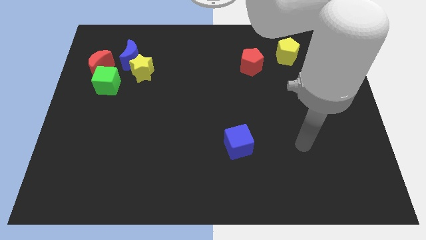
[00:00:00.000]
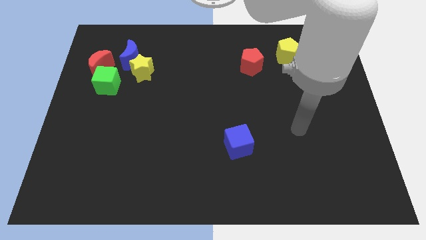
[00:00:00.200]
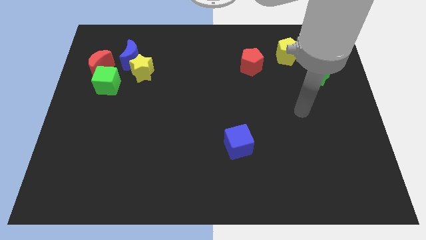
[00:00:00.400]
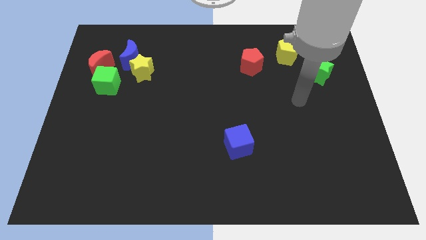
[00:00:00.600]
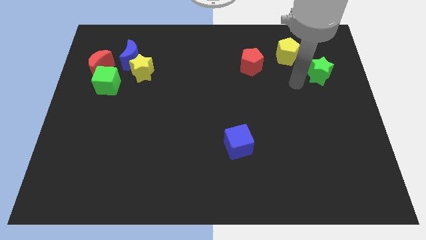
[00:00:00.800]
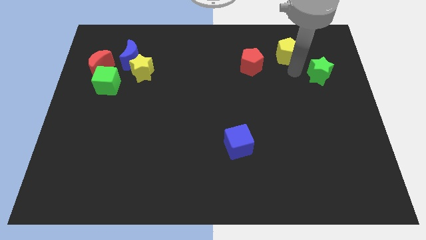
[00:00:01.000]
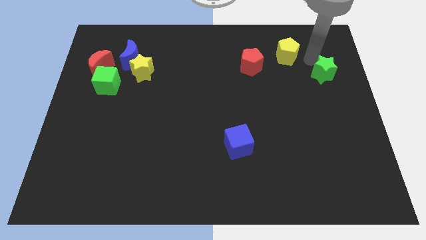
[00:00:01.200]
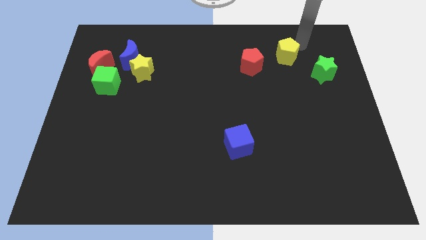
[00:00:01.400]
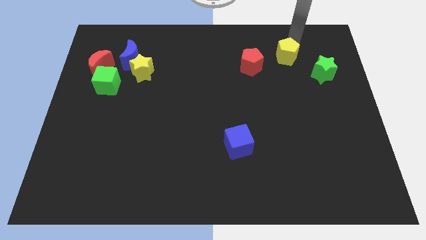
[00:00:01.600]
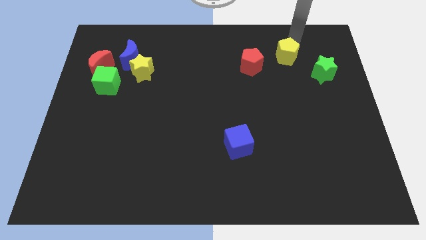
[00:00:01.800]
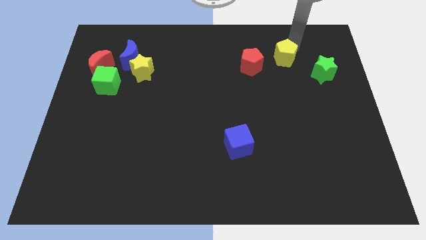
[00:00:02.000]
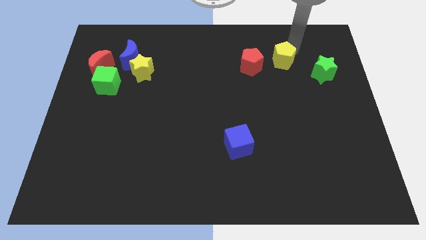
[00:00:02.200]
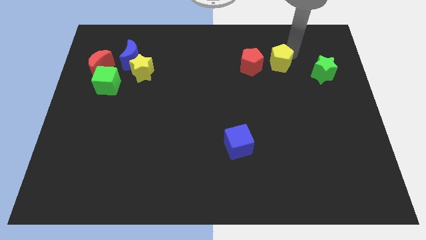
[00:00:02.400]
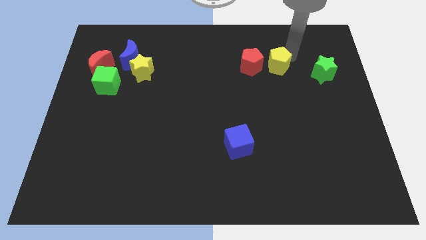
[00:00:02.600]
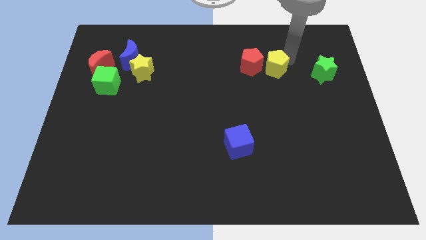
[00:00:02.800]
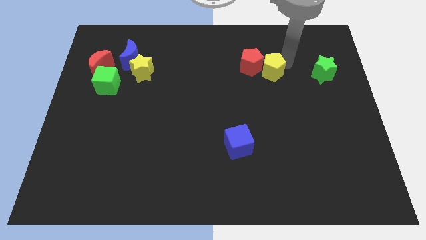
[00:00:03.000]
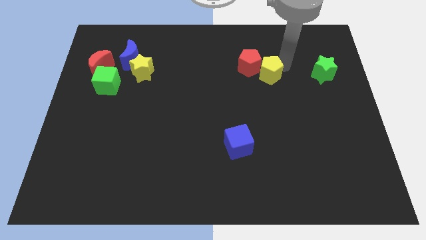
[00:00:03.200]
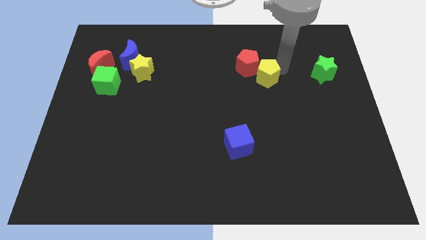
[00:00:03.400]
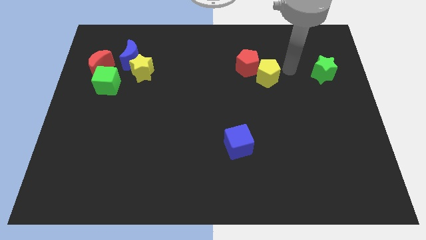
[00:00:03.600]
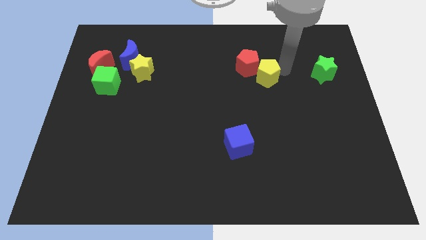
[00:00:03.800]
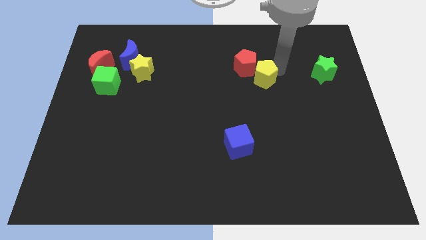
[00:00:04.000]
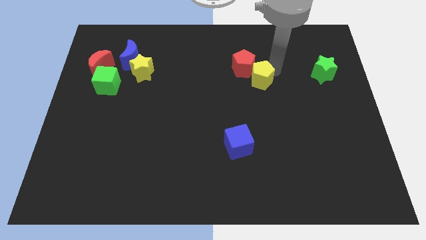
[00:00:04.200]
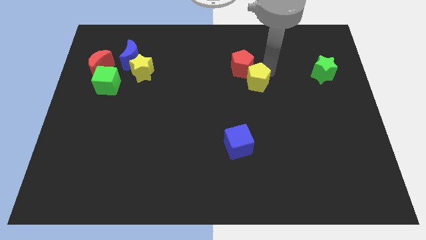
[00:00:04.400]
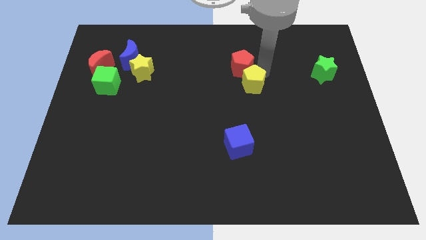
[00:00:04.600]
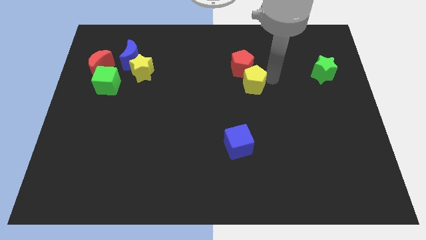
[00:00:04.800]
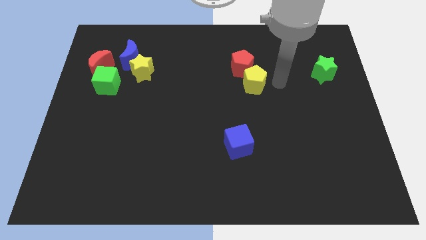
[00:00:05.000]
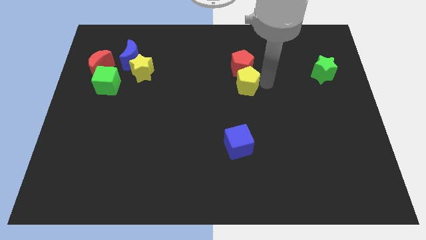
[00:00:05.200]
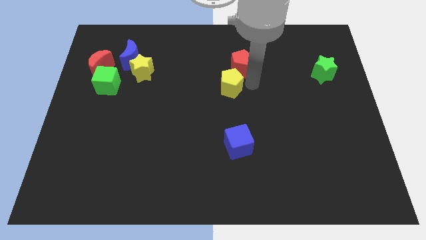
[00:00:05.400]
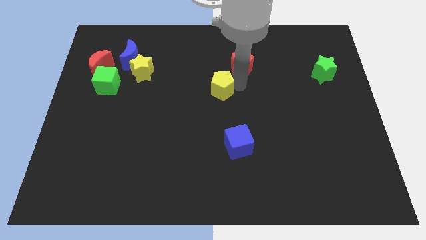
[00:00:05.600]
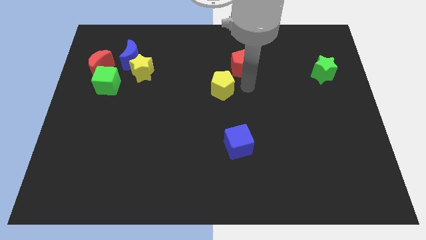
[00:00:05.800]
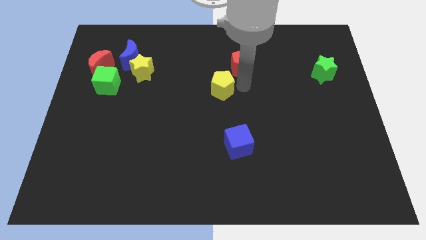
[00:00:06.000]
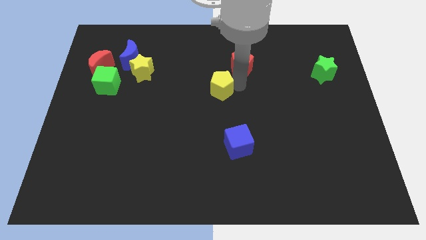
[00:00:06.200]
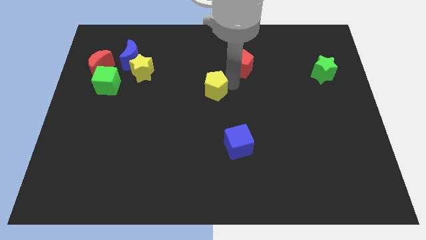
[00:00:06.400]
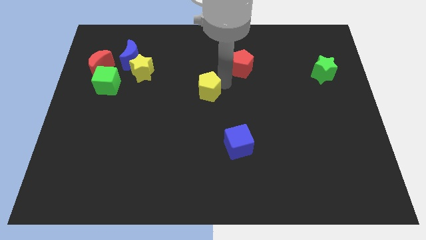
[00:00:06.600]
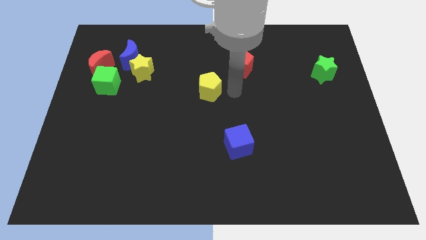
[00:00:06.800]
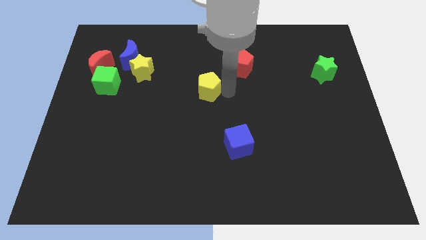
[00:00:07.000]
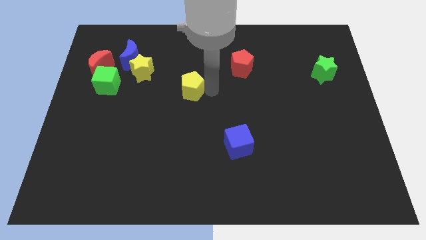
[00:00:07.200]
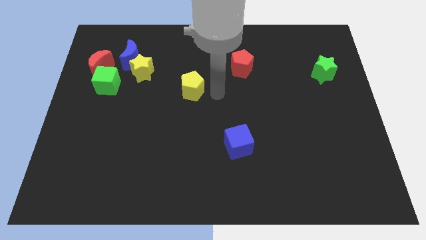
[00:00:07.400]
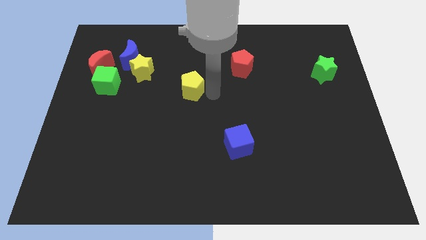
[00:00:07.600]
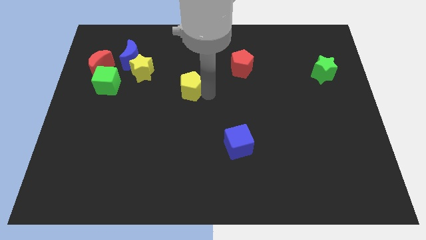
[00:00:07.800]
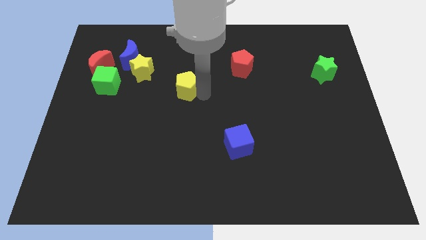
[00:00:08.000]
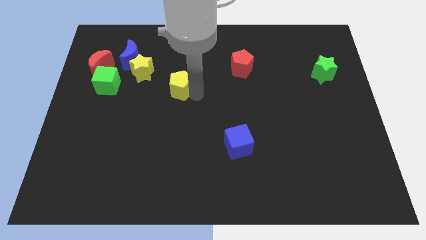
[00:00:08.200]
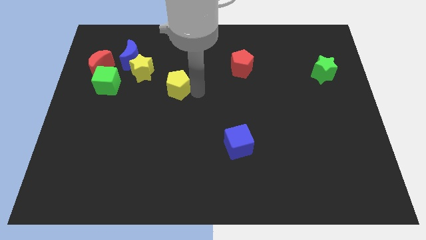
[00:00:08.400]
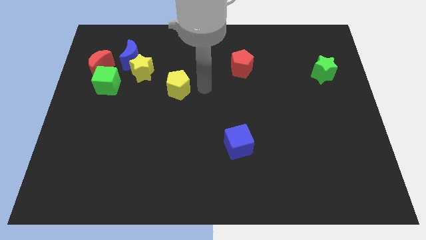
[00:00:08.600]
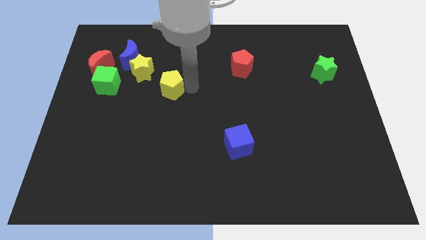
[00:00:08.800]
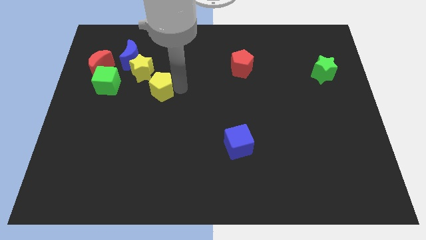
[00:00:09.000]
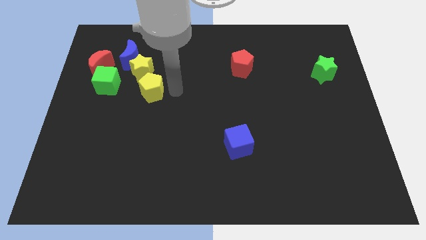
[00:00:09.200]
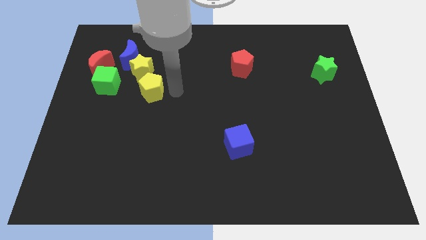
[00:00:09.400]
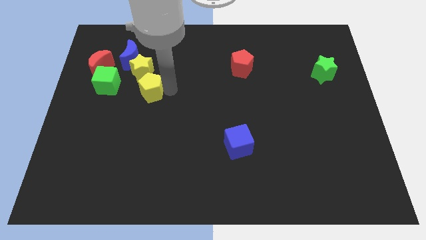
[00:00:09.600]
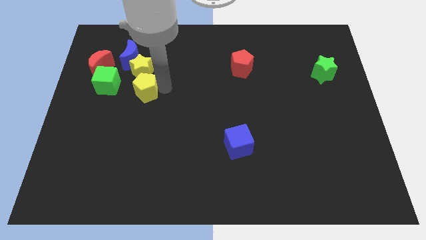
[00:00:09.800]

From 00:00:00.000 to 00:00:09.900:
put the yellow pentagon to the bottom side of the blue moon

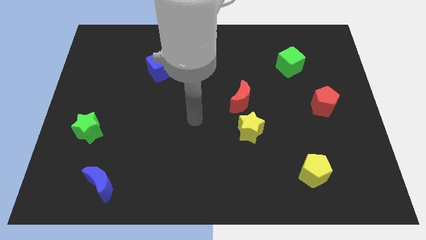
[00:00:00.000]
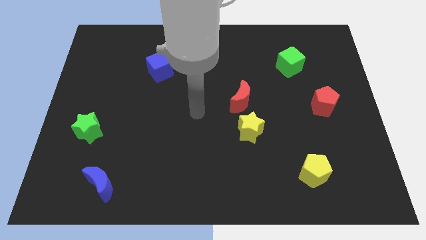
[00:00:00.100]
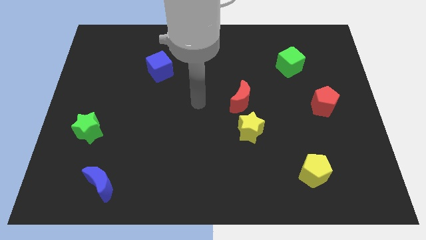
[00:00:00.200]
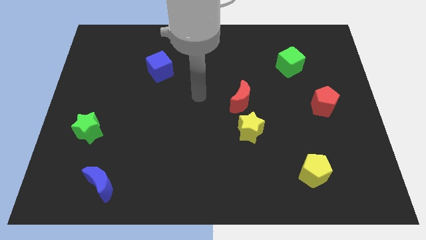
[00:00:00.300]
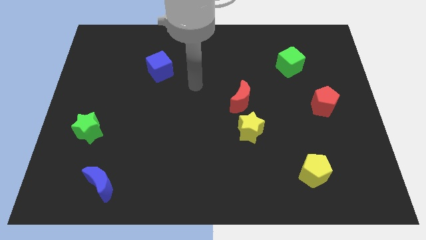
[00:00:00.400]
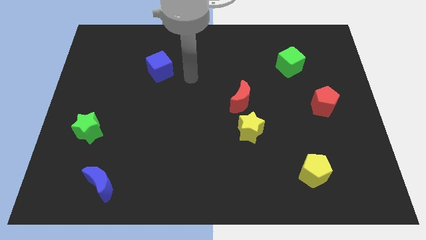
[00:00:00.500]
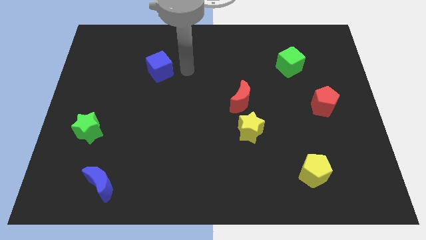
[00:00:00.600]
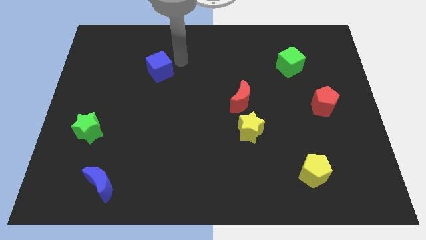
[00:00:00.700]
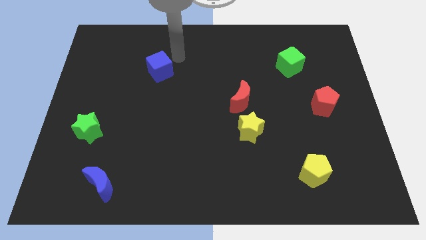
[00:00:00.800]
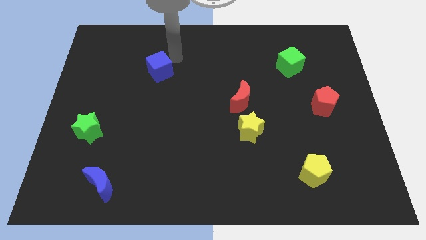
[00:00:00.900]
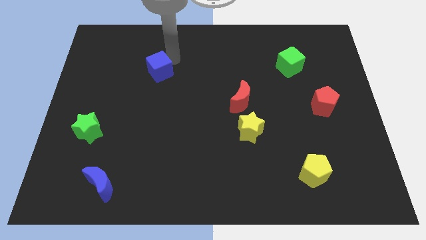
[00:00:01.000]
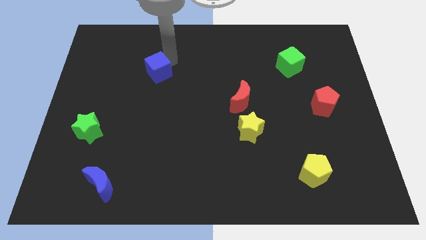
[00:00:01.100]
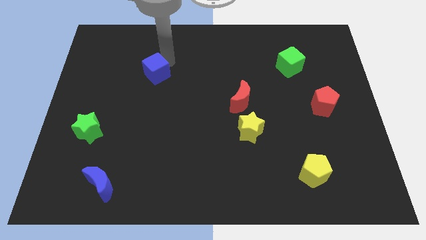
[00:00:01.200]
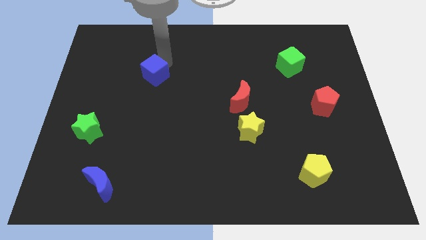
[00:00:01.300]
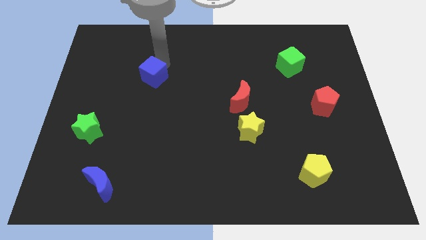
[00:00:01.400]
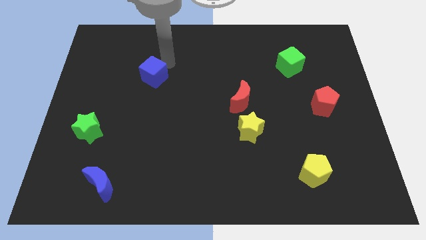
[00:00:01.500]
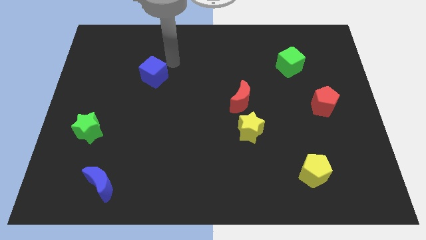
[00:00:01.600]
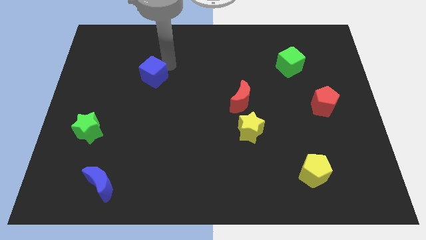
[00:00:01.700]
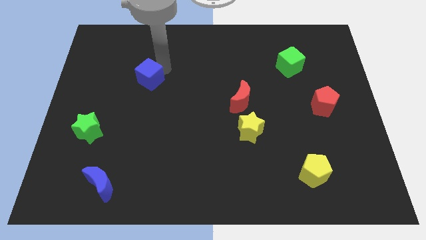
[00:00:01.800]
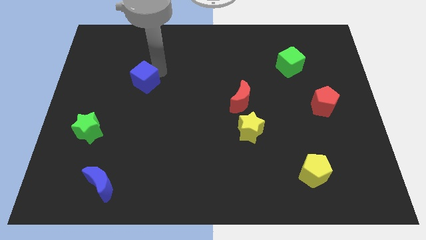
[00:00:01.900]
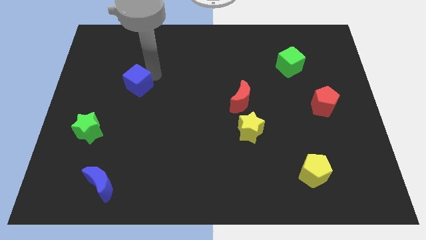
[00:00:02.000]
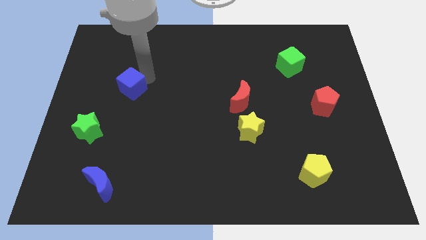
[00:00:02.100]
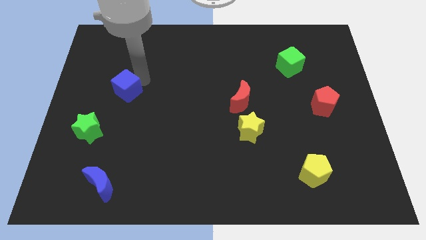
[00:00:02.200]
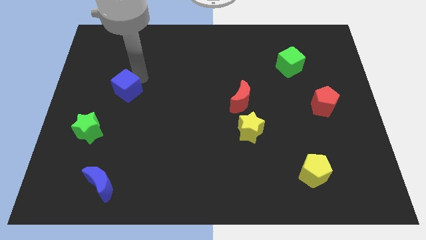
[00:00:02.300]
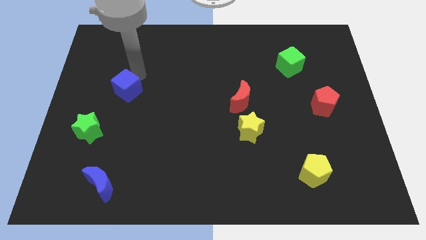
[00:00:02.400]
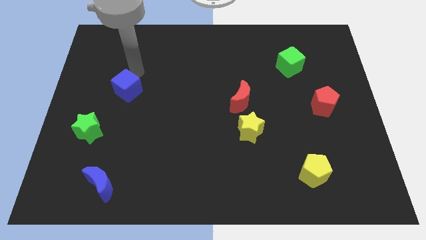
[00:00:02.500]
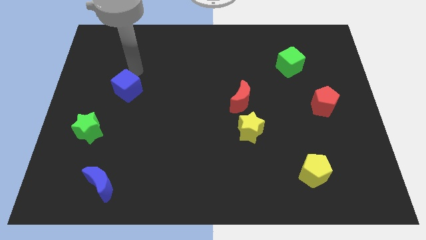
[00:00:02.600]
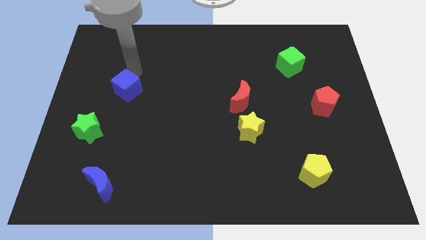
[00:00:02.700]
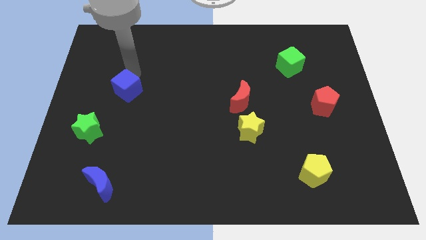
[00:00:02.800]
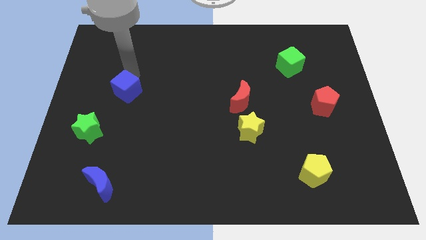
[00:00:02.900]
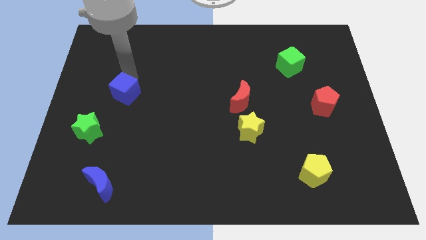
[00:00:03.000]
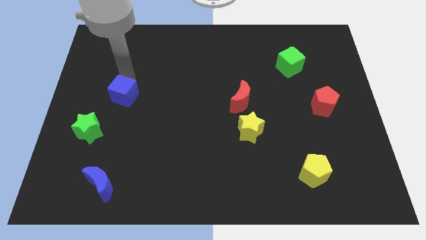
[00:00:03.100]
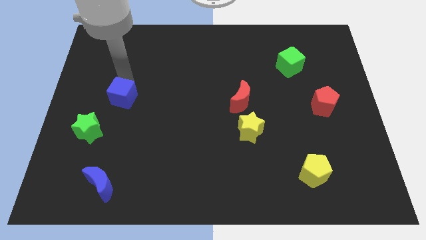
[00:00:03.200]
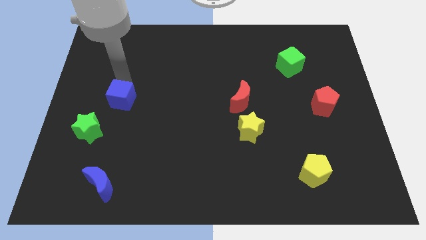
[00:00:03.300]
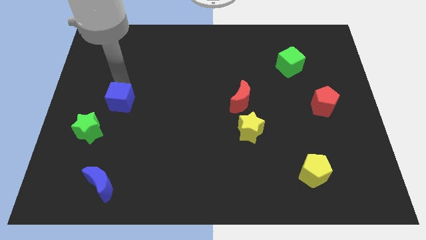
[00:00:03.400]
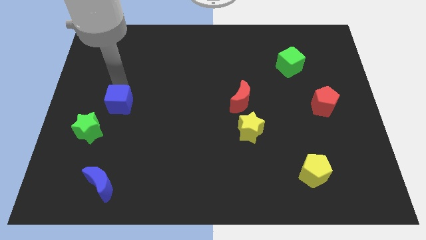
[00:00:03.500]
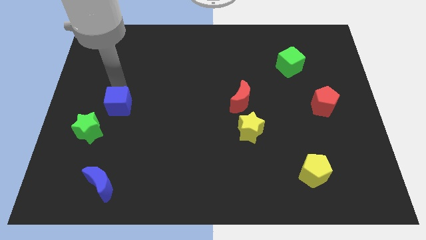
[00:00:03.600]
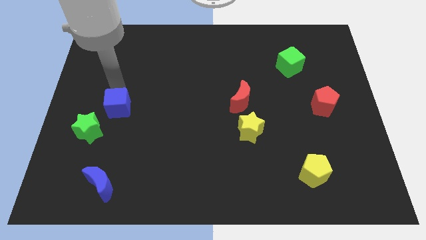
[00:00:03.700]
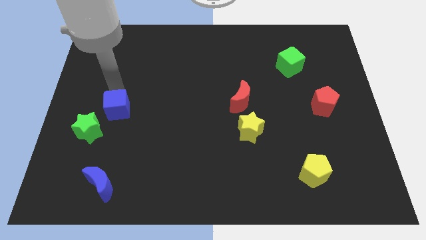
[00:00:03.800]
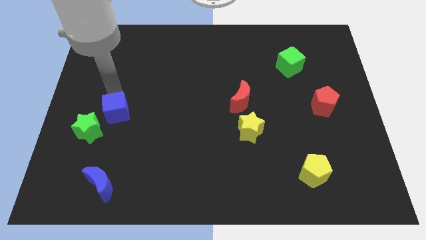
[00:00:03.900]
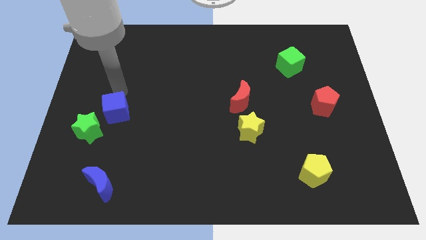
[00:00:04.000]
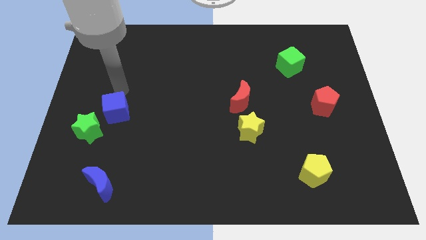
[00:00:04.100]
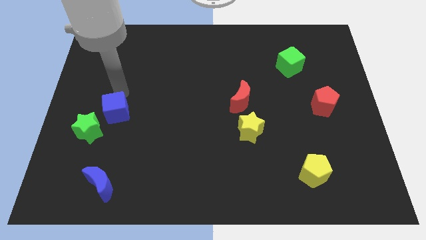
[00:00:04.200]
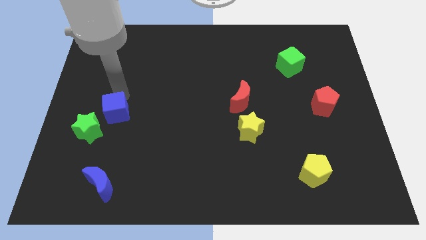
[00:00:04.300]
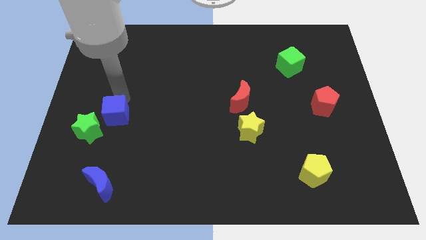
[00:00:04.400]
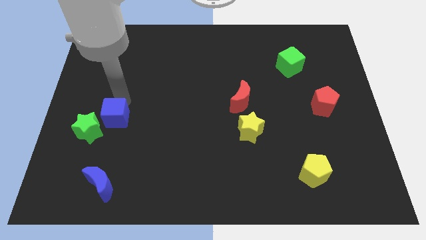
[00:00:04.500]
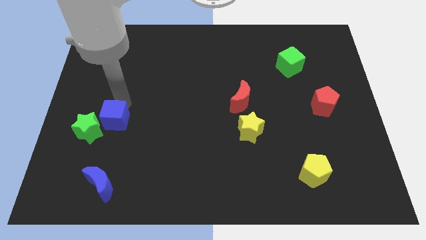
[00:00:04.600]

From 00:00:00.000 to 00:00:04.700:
slide the blue cube to the top of the blue moon
